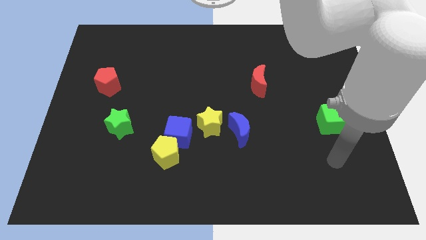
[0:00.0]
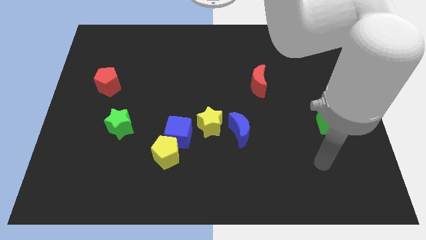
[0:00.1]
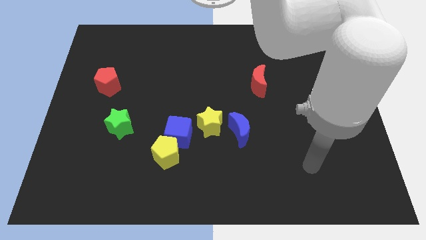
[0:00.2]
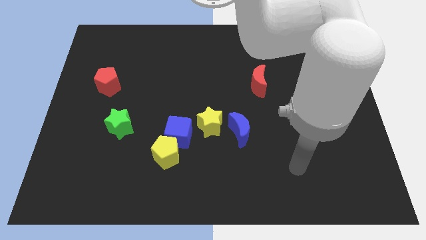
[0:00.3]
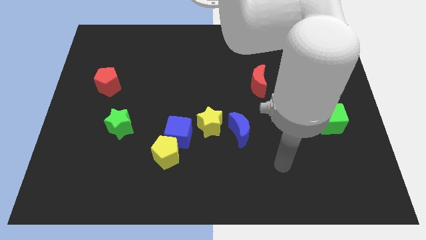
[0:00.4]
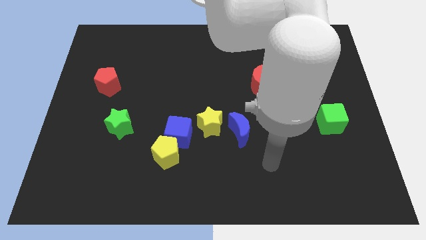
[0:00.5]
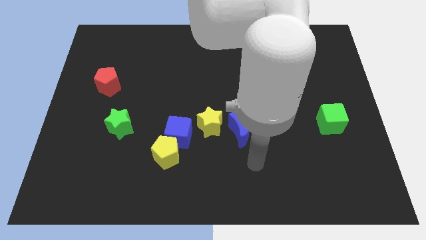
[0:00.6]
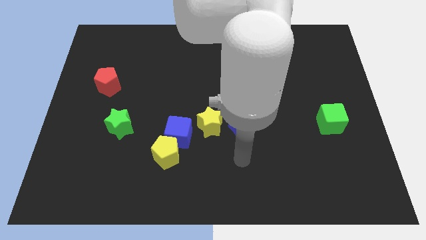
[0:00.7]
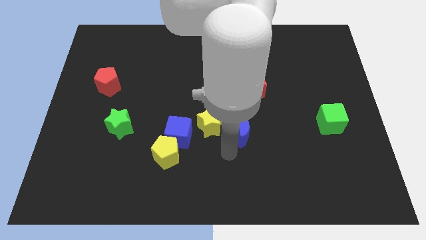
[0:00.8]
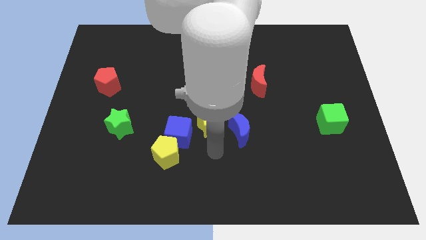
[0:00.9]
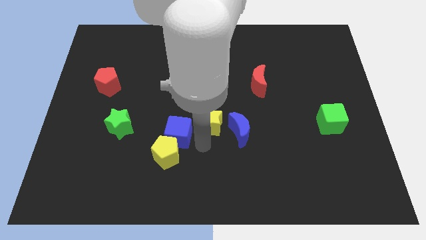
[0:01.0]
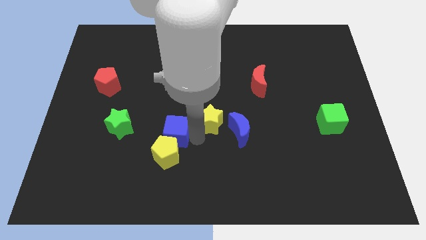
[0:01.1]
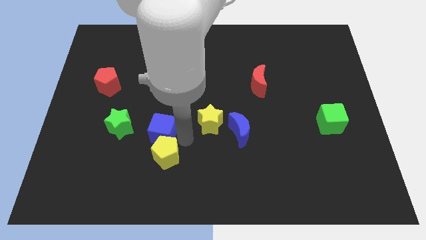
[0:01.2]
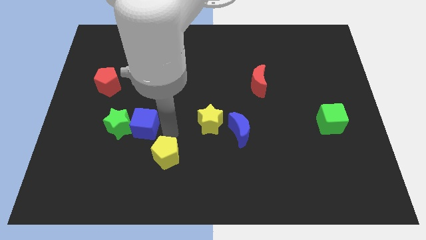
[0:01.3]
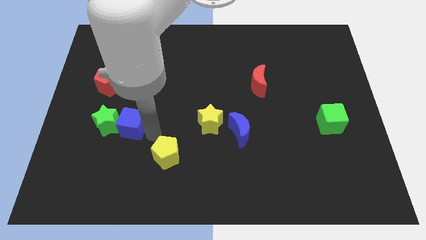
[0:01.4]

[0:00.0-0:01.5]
move the yellow pentagon away from the blue cube

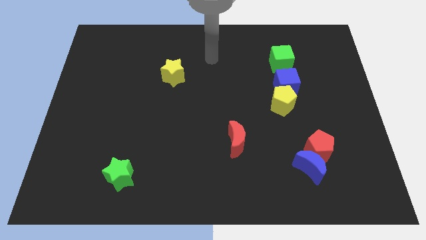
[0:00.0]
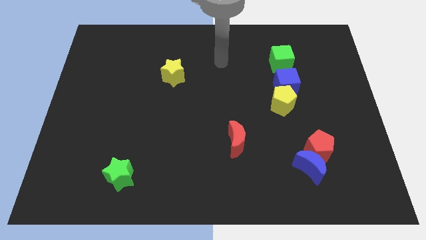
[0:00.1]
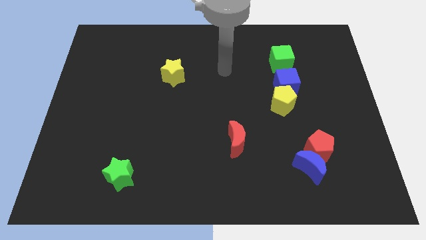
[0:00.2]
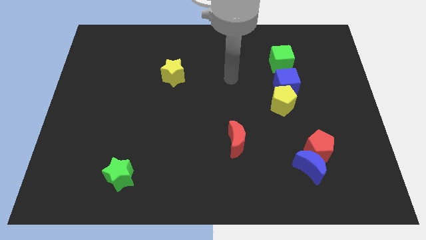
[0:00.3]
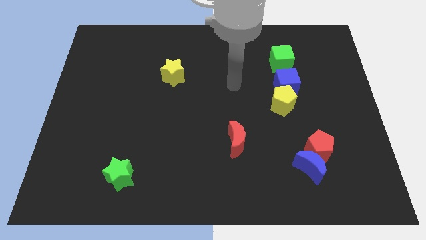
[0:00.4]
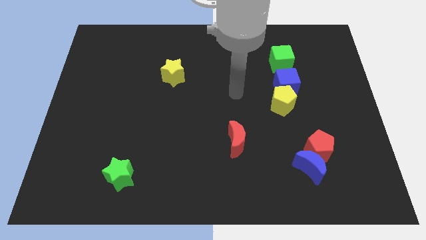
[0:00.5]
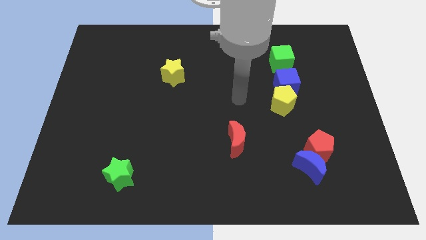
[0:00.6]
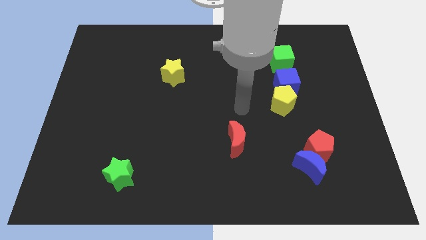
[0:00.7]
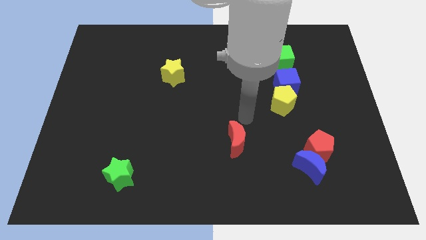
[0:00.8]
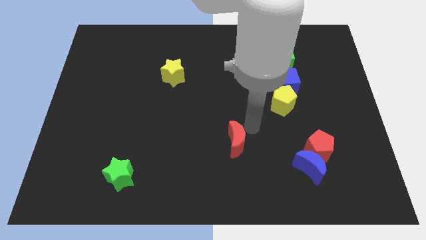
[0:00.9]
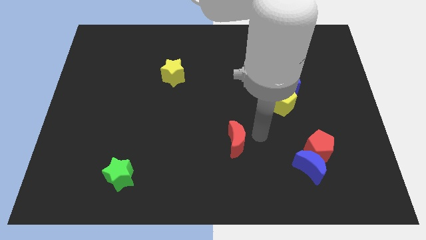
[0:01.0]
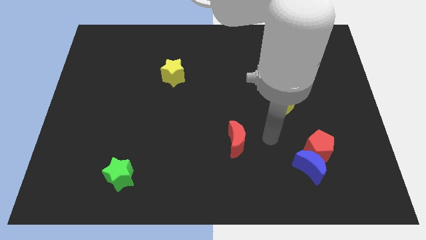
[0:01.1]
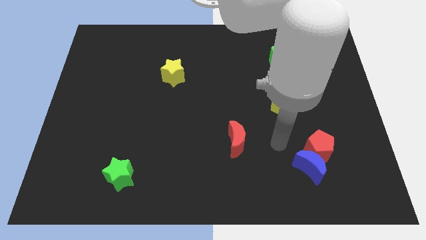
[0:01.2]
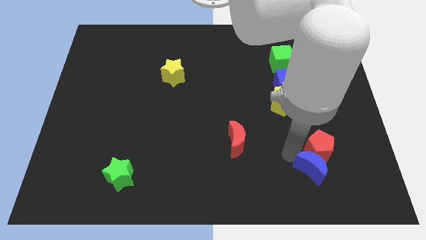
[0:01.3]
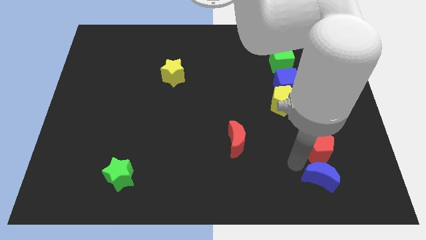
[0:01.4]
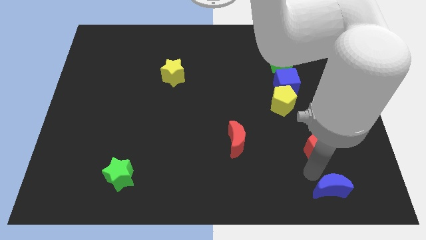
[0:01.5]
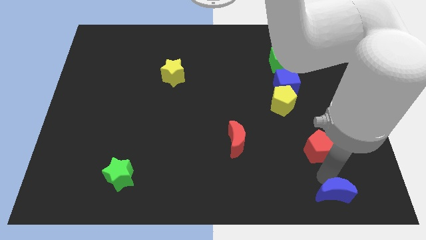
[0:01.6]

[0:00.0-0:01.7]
pull the red pentagon apart from the blue moon

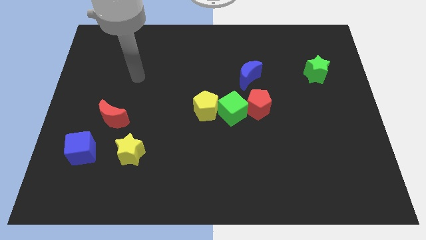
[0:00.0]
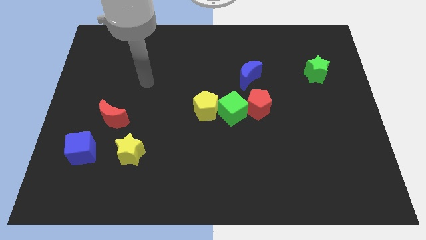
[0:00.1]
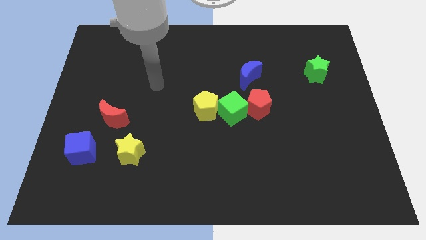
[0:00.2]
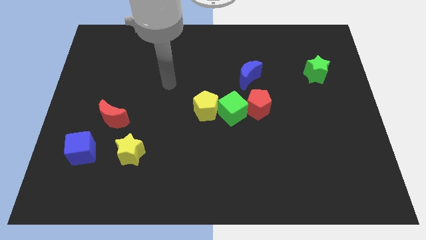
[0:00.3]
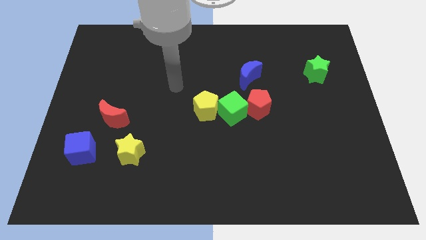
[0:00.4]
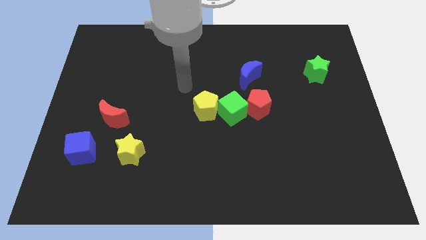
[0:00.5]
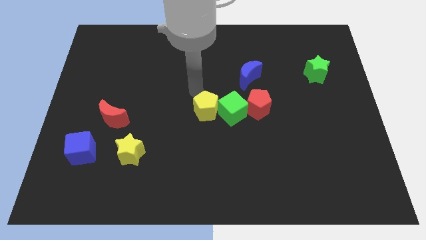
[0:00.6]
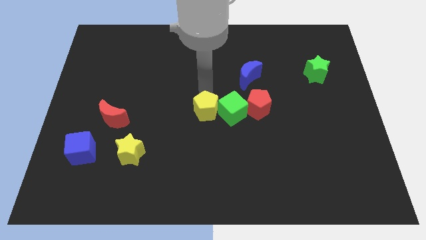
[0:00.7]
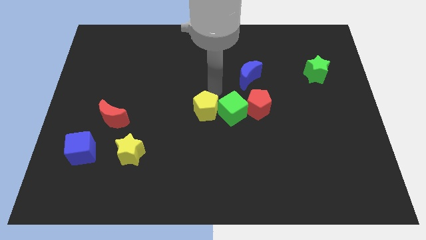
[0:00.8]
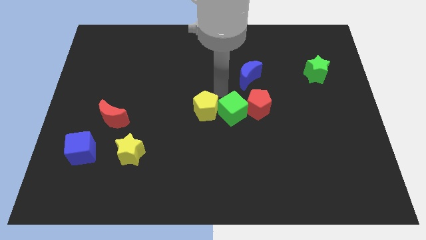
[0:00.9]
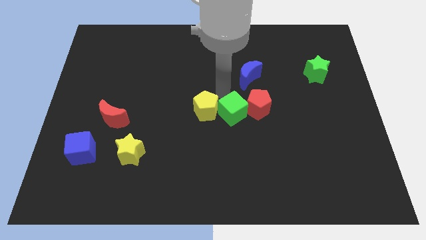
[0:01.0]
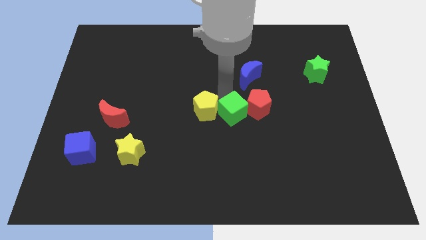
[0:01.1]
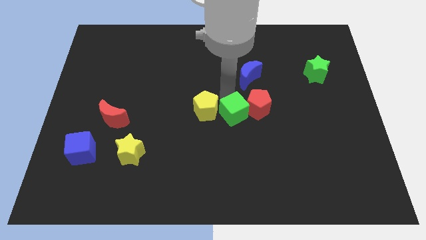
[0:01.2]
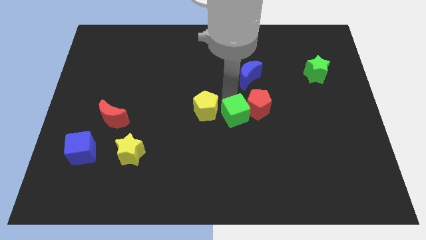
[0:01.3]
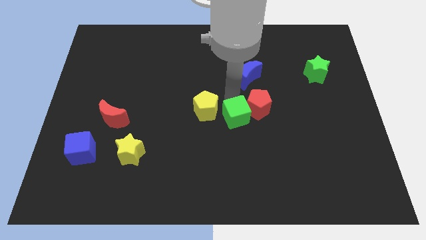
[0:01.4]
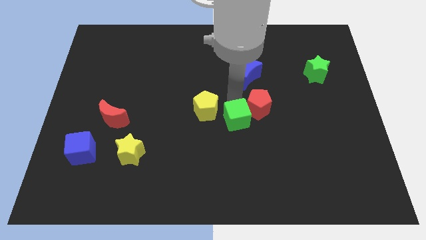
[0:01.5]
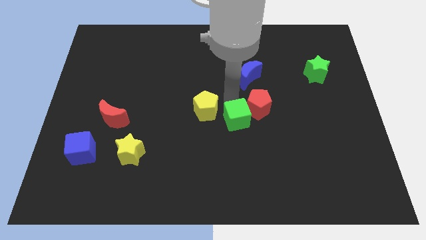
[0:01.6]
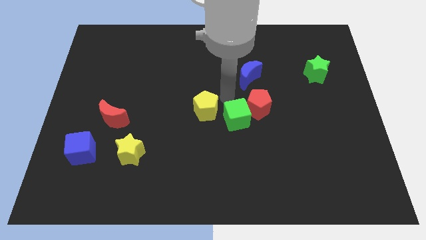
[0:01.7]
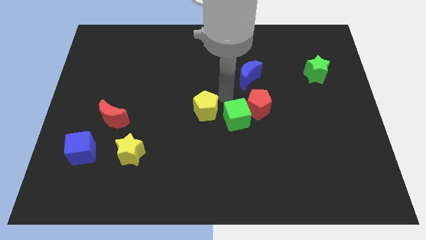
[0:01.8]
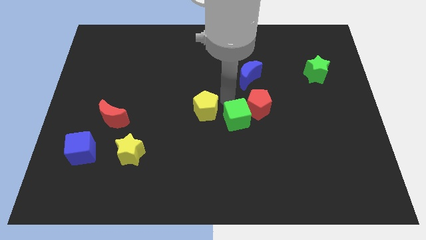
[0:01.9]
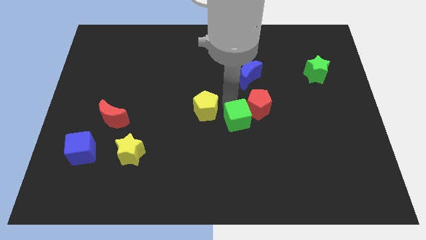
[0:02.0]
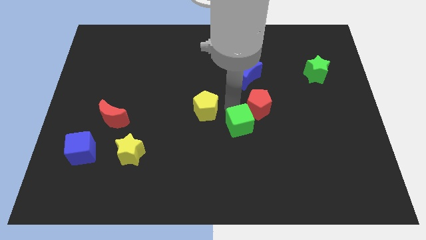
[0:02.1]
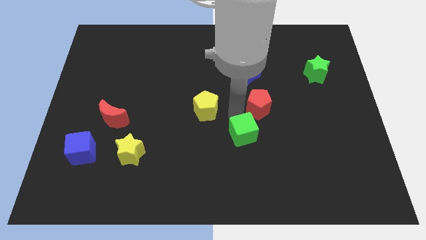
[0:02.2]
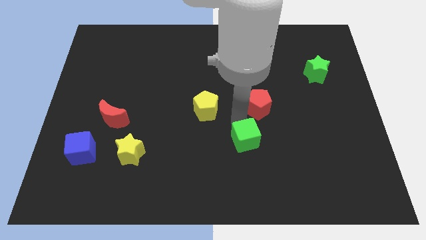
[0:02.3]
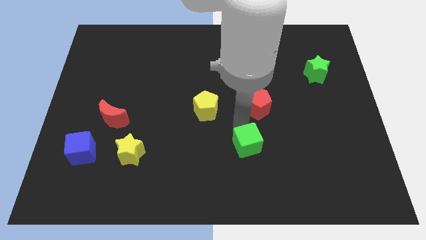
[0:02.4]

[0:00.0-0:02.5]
pull the green cube apart from the red pentagon and yellow pentagon

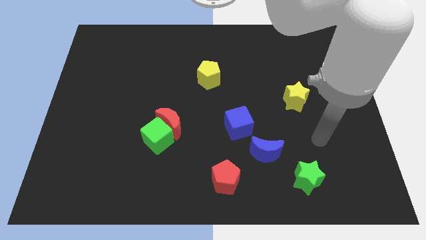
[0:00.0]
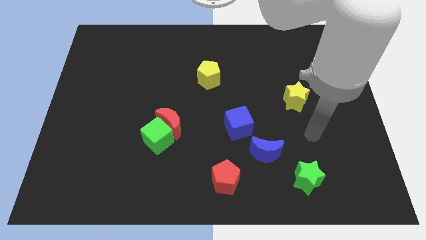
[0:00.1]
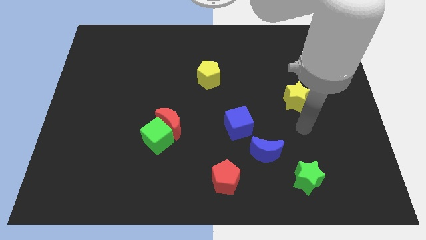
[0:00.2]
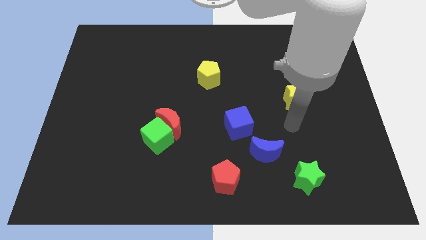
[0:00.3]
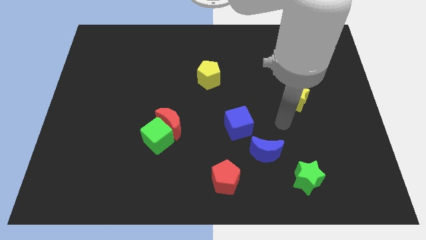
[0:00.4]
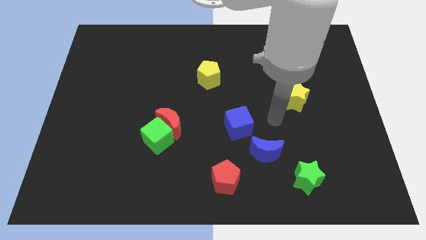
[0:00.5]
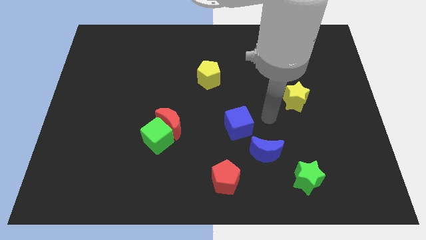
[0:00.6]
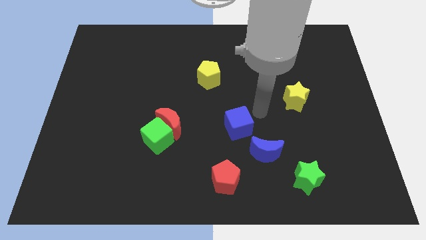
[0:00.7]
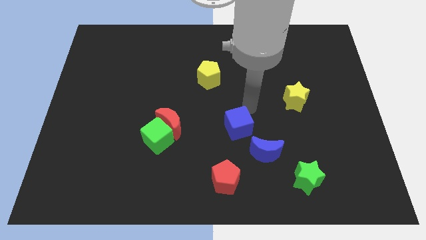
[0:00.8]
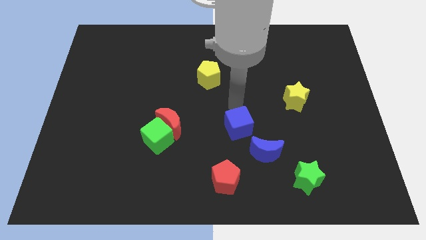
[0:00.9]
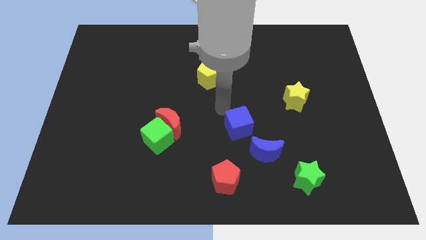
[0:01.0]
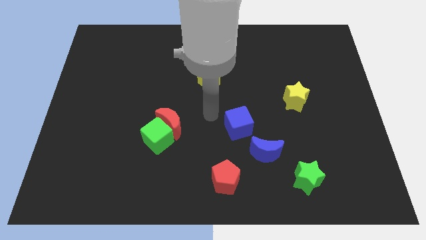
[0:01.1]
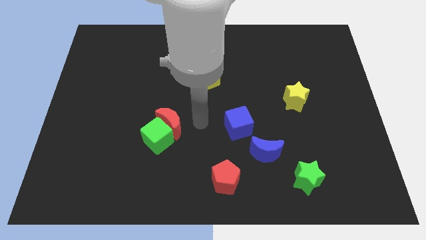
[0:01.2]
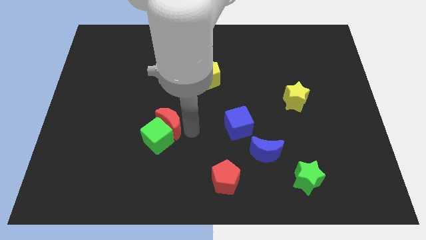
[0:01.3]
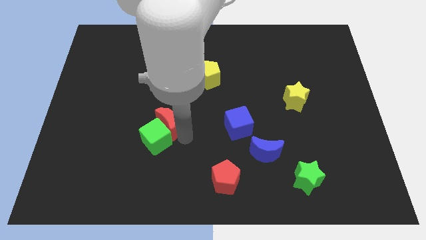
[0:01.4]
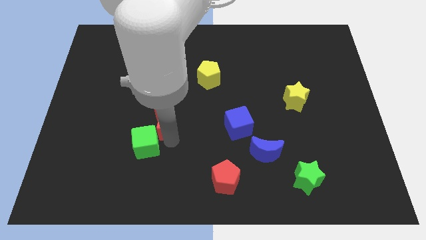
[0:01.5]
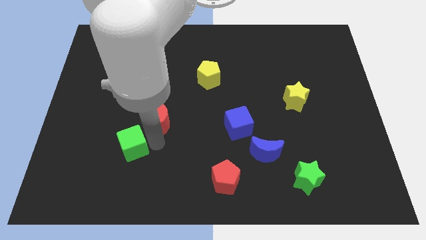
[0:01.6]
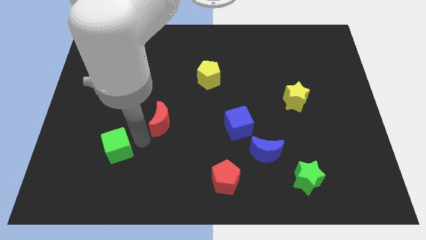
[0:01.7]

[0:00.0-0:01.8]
pull the red moon apart from the green cube

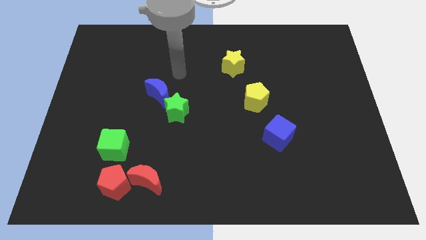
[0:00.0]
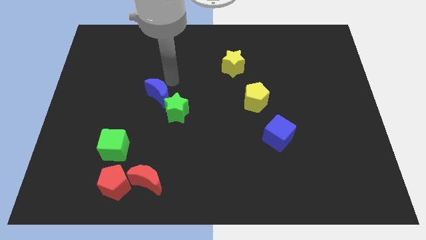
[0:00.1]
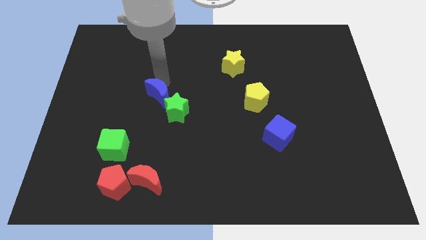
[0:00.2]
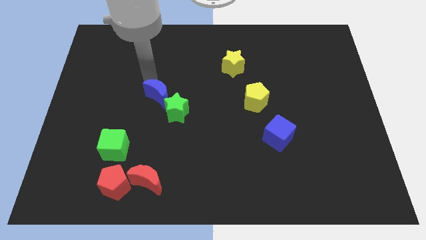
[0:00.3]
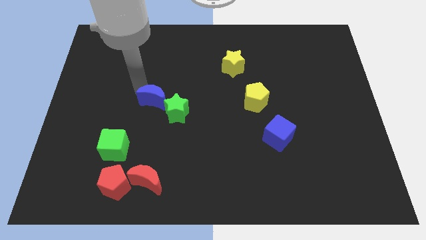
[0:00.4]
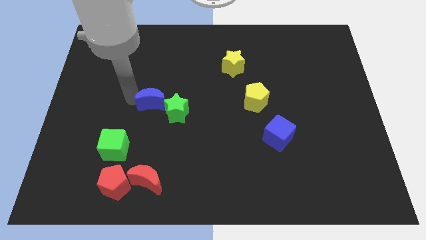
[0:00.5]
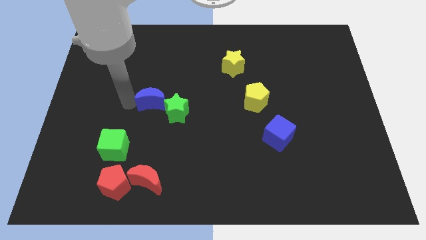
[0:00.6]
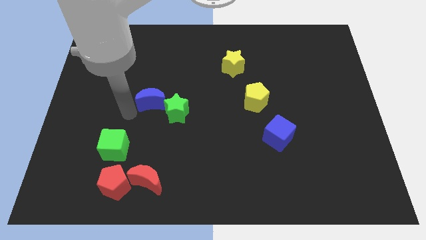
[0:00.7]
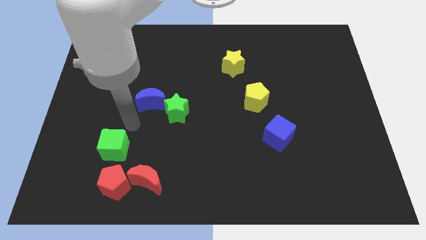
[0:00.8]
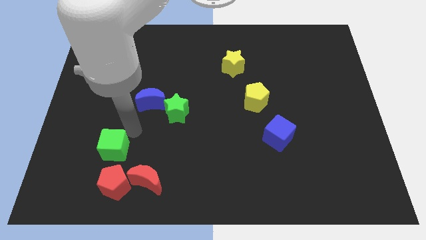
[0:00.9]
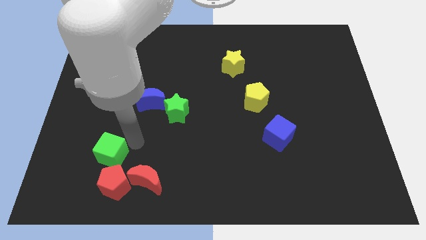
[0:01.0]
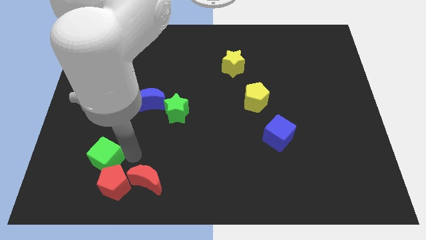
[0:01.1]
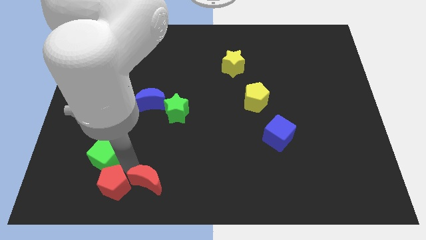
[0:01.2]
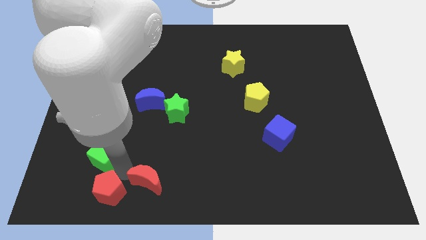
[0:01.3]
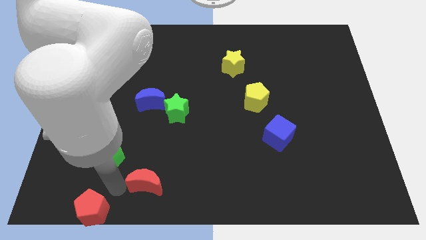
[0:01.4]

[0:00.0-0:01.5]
separate the red moon from the red pentagon
